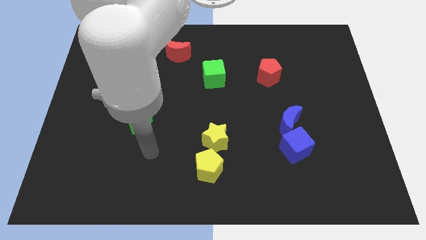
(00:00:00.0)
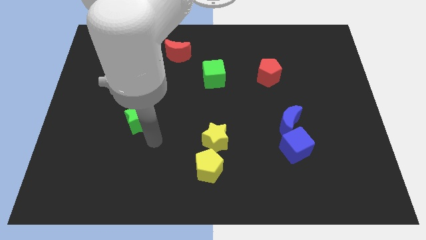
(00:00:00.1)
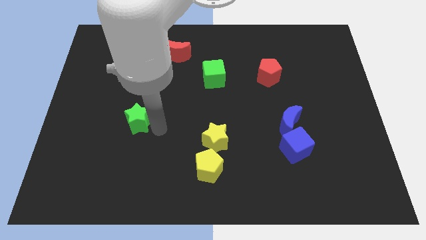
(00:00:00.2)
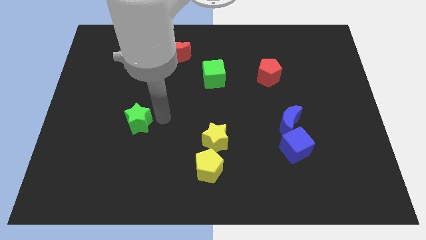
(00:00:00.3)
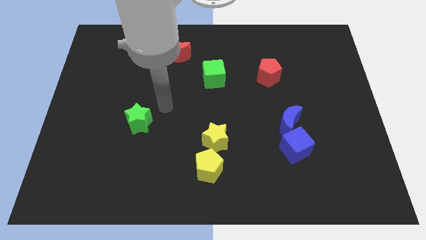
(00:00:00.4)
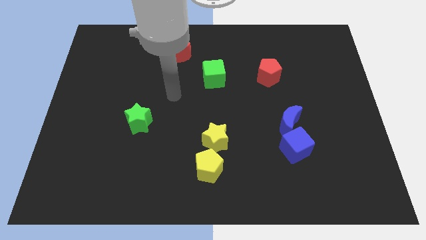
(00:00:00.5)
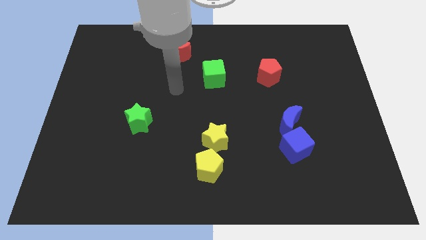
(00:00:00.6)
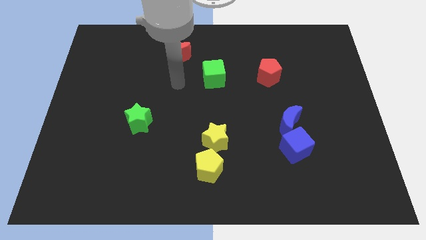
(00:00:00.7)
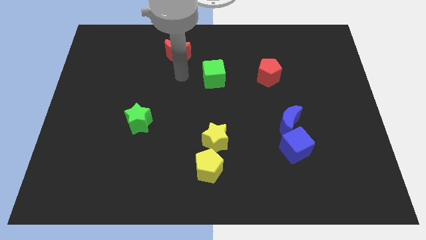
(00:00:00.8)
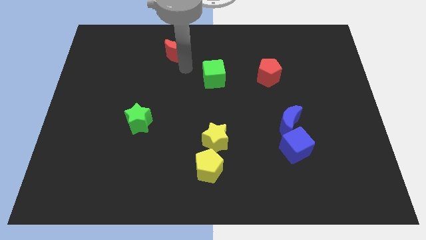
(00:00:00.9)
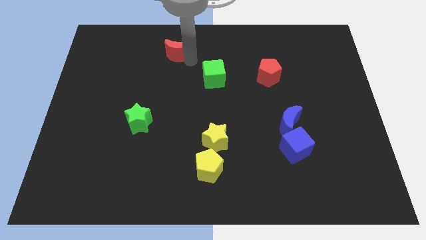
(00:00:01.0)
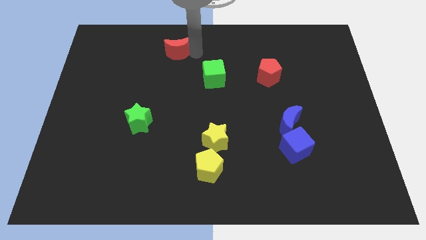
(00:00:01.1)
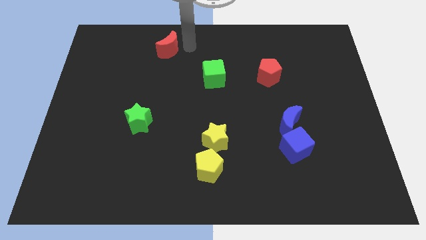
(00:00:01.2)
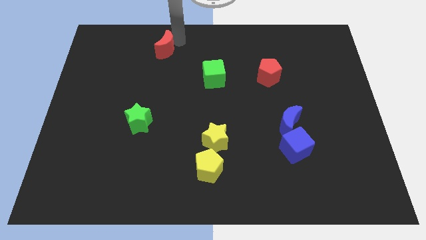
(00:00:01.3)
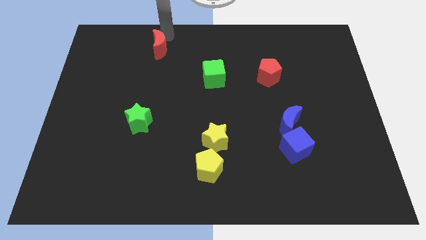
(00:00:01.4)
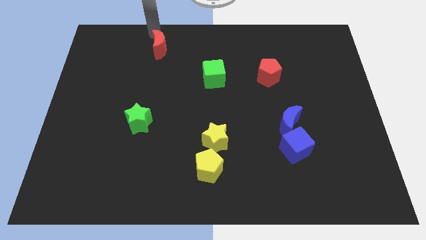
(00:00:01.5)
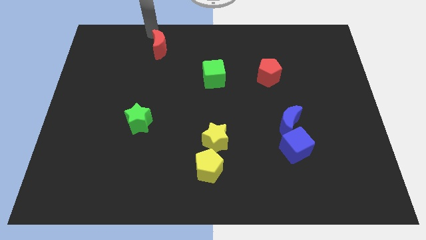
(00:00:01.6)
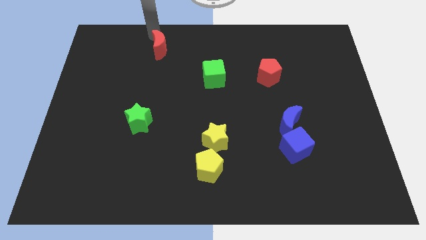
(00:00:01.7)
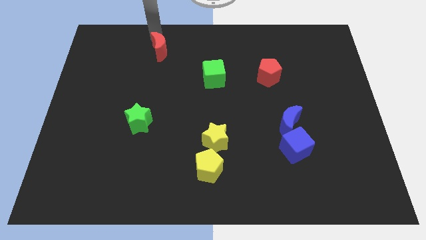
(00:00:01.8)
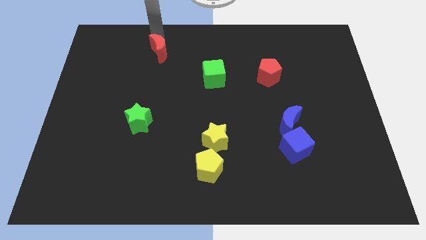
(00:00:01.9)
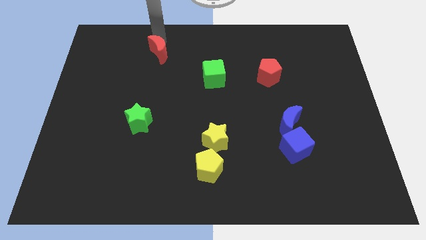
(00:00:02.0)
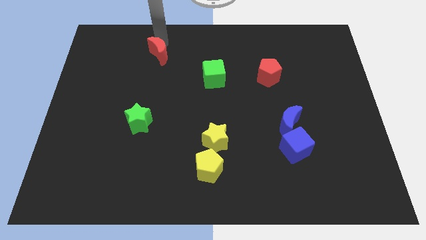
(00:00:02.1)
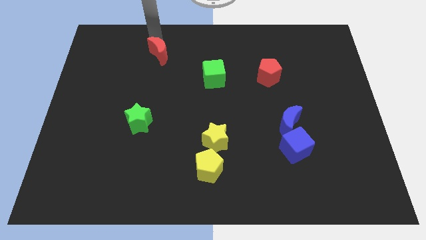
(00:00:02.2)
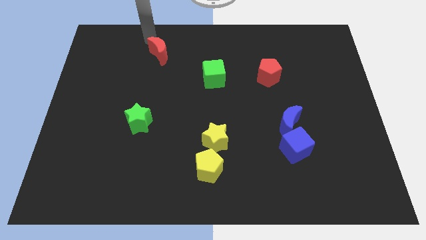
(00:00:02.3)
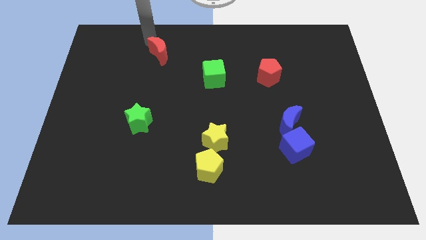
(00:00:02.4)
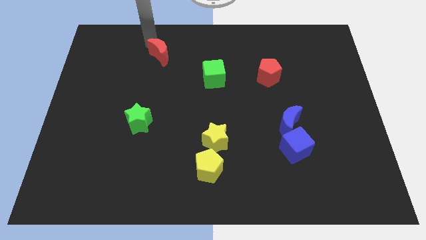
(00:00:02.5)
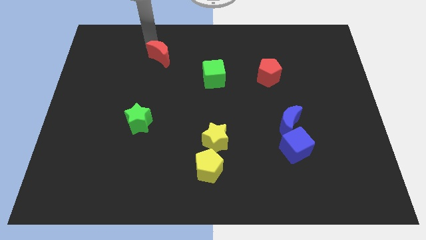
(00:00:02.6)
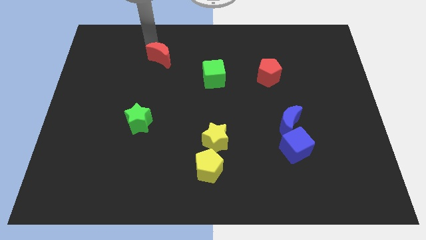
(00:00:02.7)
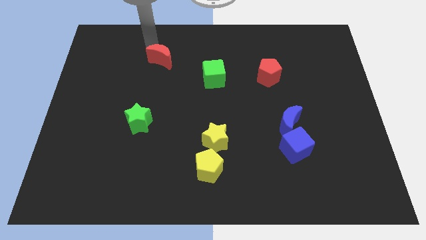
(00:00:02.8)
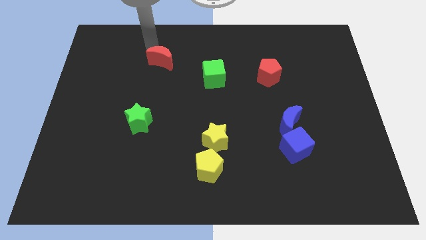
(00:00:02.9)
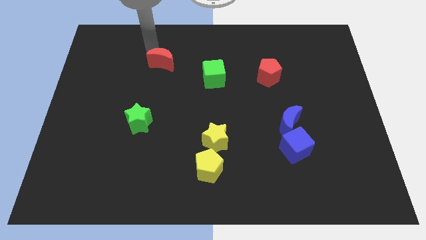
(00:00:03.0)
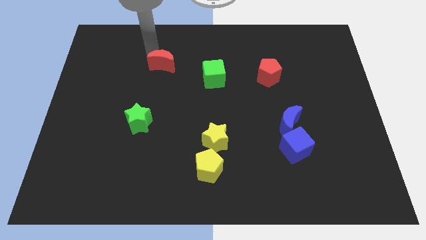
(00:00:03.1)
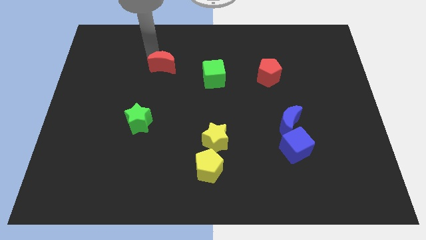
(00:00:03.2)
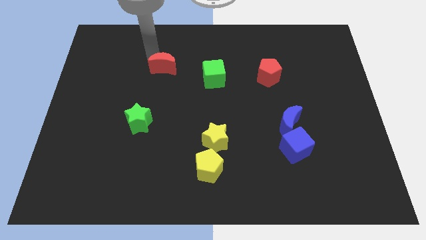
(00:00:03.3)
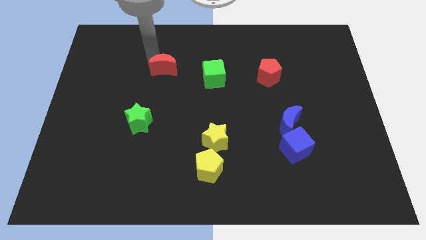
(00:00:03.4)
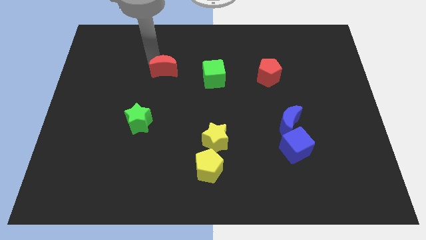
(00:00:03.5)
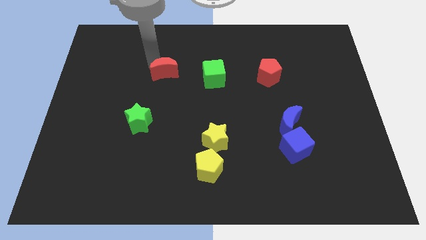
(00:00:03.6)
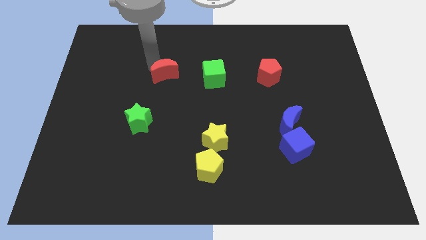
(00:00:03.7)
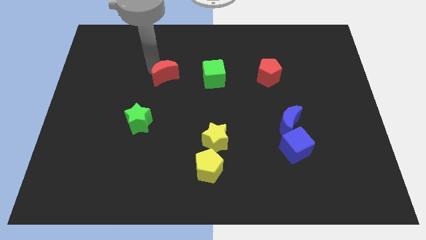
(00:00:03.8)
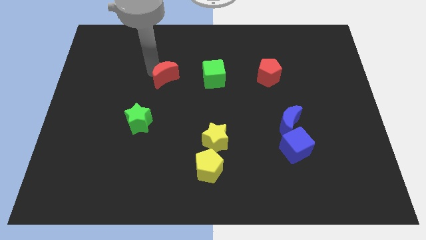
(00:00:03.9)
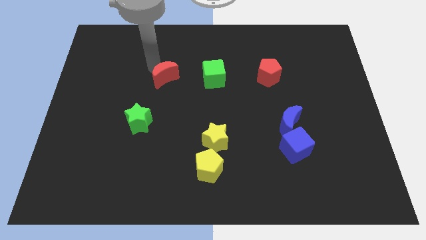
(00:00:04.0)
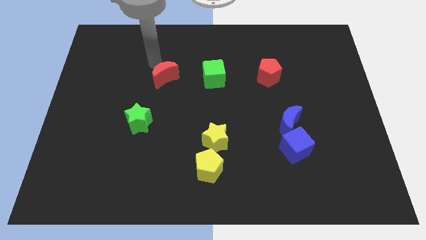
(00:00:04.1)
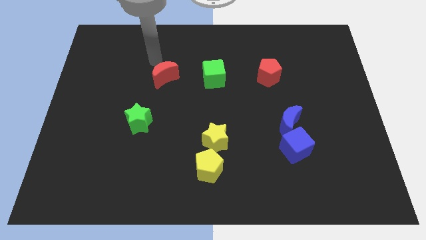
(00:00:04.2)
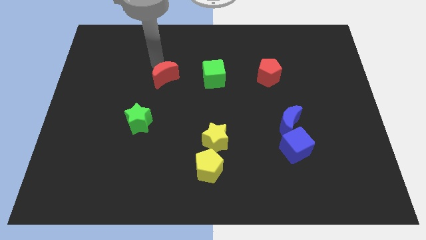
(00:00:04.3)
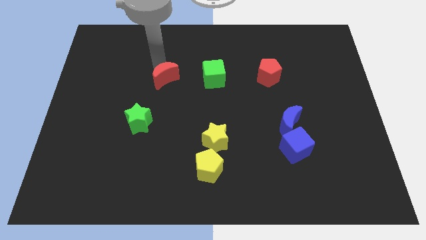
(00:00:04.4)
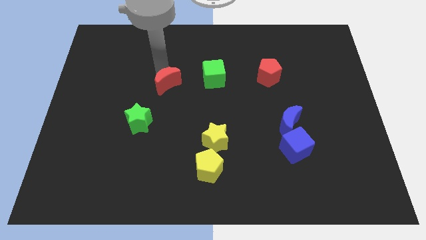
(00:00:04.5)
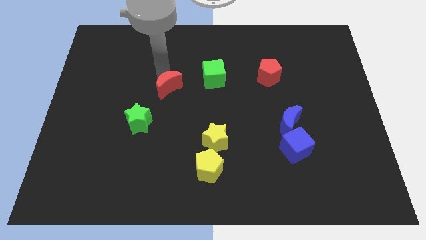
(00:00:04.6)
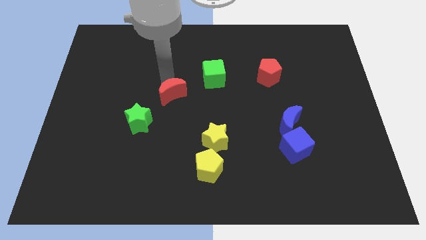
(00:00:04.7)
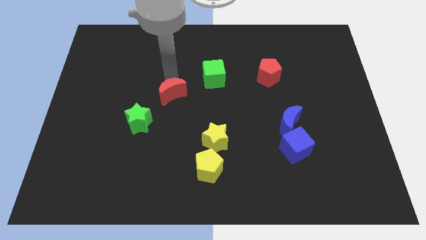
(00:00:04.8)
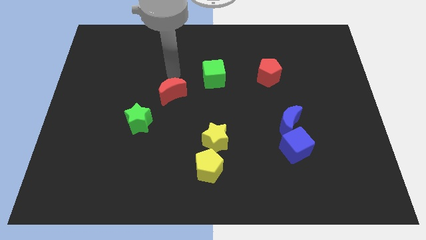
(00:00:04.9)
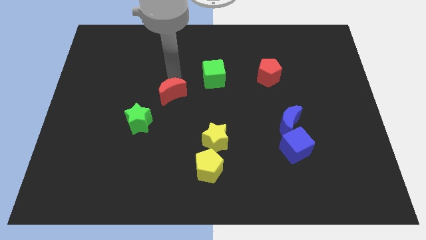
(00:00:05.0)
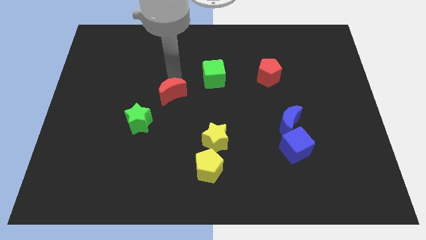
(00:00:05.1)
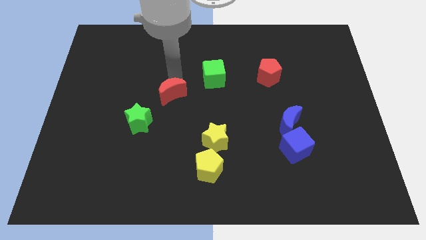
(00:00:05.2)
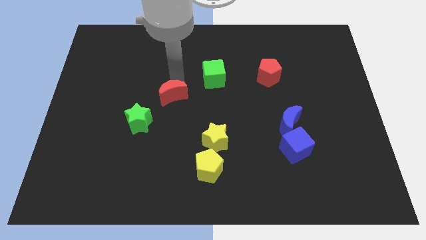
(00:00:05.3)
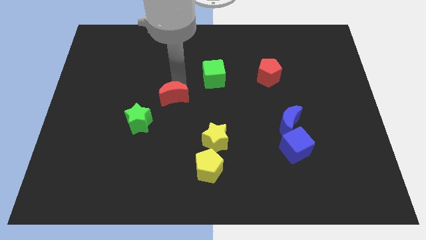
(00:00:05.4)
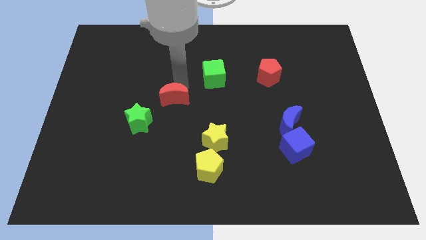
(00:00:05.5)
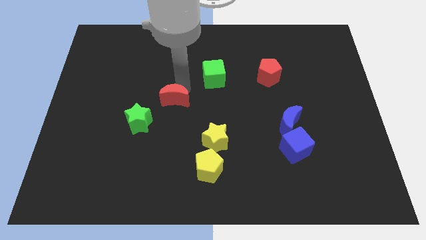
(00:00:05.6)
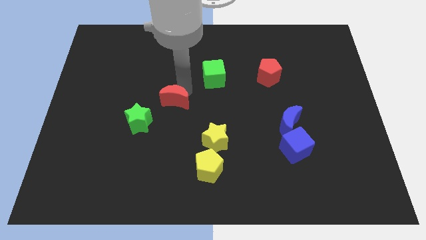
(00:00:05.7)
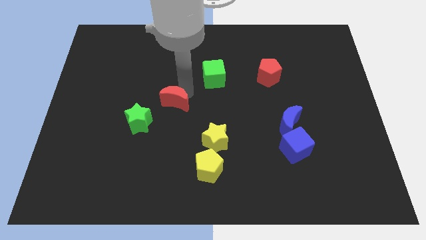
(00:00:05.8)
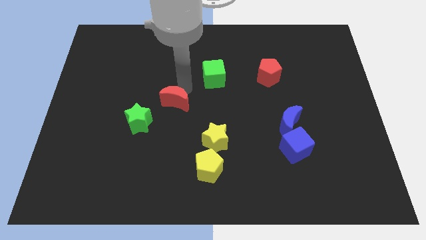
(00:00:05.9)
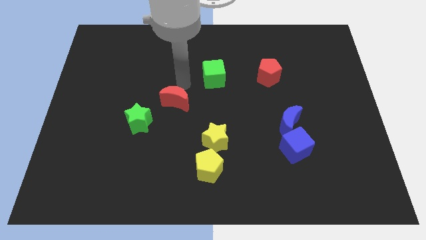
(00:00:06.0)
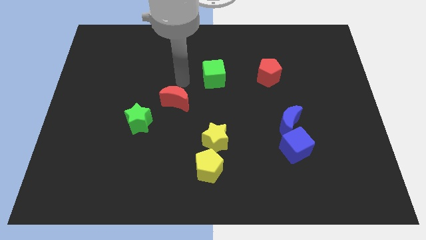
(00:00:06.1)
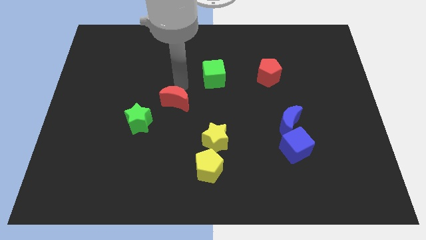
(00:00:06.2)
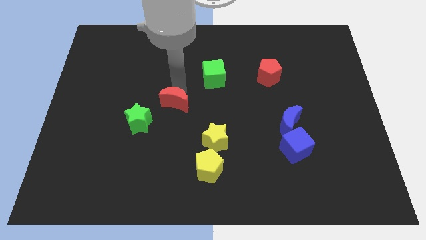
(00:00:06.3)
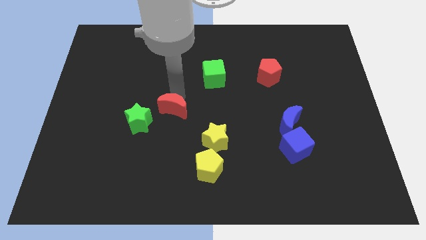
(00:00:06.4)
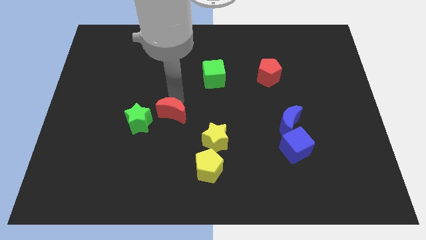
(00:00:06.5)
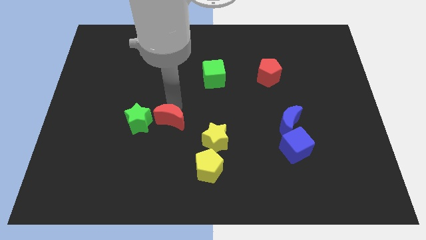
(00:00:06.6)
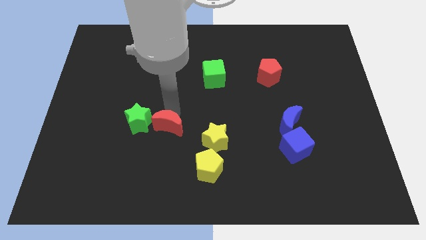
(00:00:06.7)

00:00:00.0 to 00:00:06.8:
push the red moon just left of the yellow star
